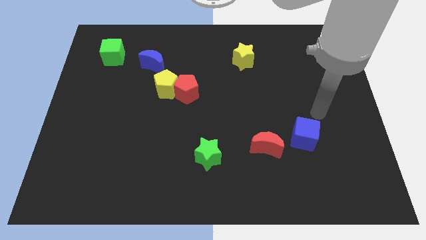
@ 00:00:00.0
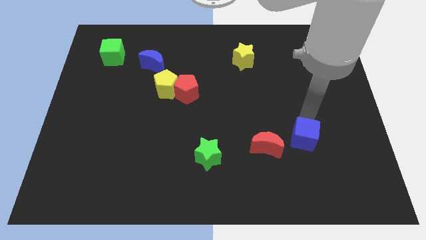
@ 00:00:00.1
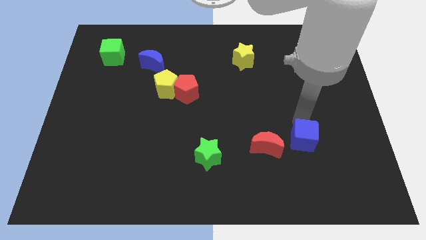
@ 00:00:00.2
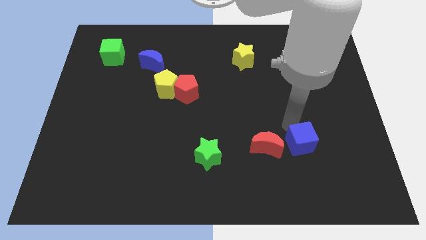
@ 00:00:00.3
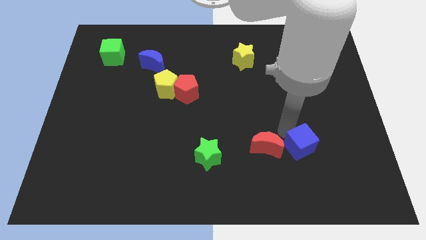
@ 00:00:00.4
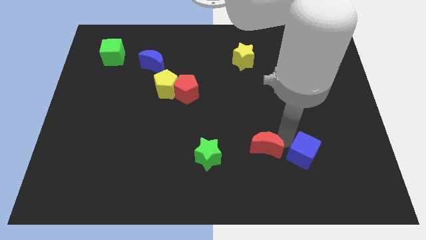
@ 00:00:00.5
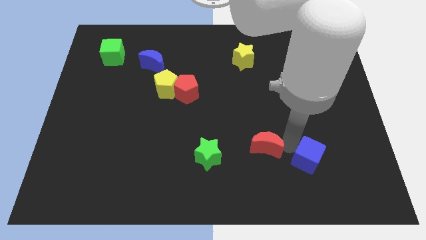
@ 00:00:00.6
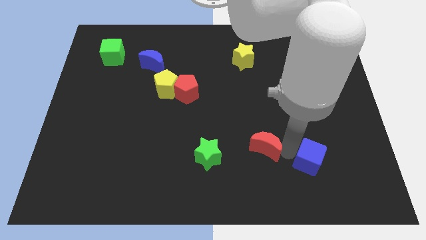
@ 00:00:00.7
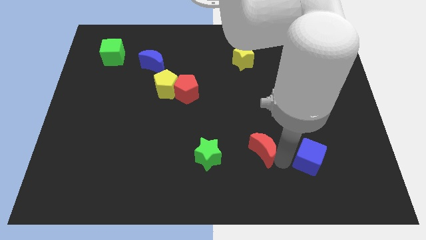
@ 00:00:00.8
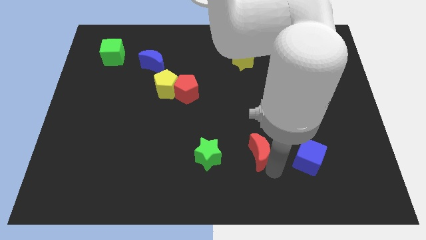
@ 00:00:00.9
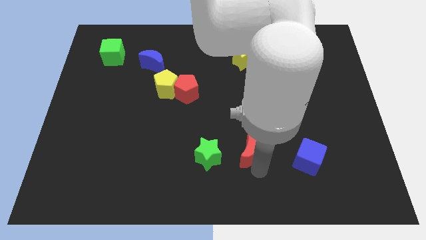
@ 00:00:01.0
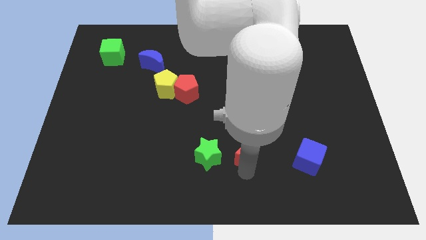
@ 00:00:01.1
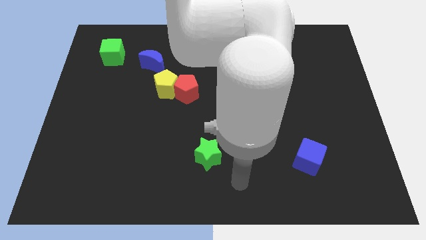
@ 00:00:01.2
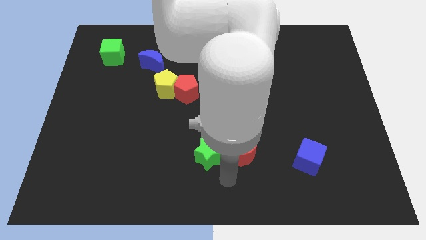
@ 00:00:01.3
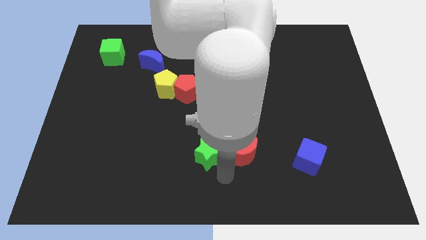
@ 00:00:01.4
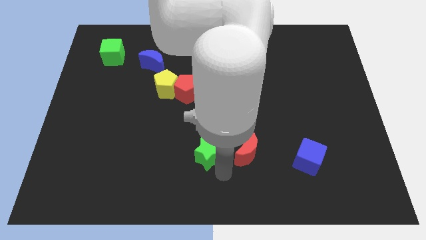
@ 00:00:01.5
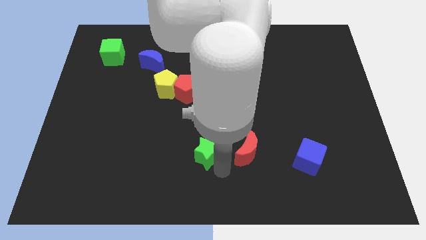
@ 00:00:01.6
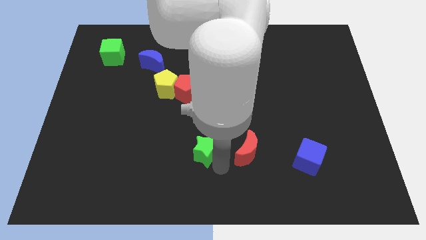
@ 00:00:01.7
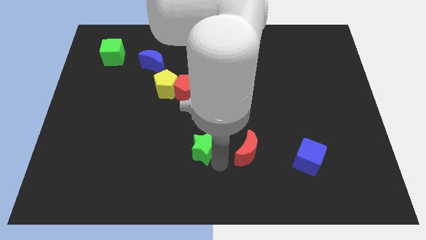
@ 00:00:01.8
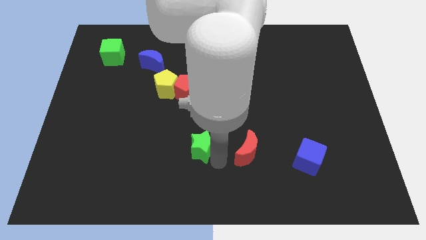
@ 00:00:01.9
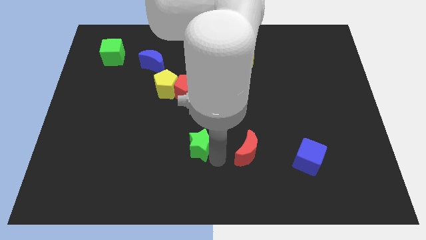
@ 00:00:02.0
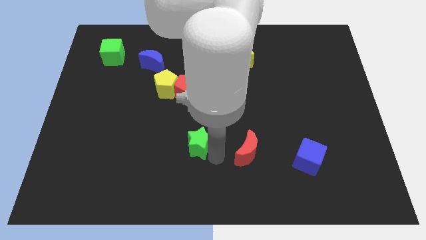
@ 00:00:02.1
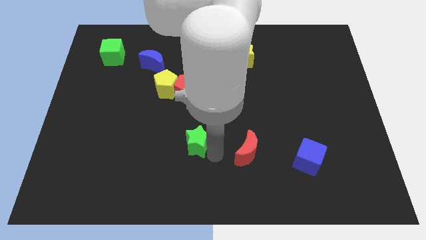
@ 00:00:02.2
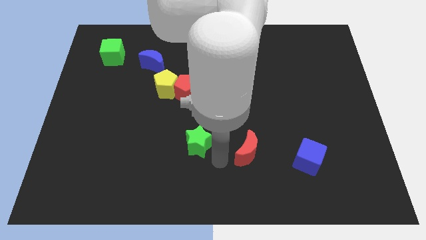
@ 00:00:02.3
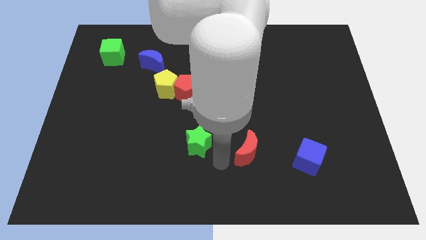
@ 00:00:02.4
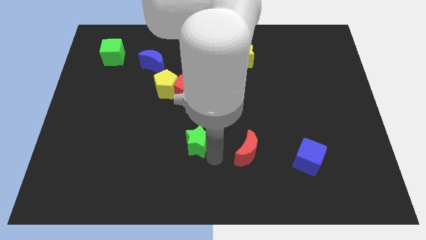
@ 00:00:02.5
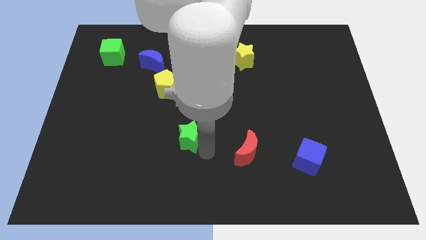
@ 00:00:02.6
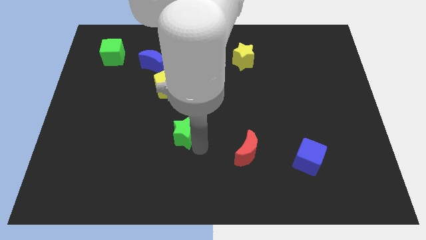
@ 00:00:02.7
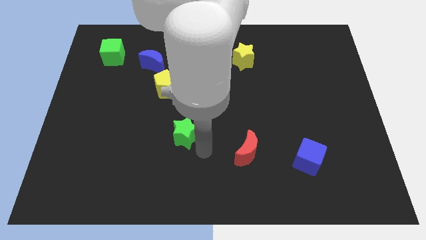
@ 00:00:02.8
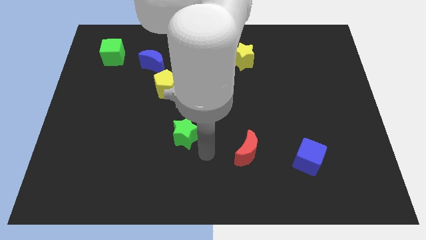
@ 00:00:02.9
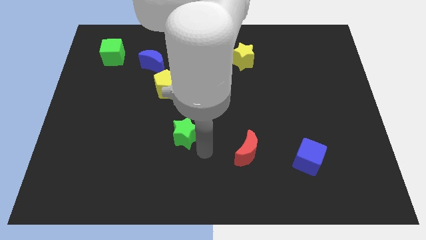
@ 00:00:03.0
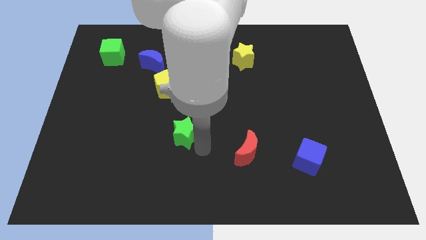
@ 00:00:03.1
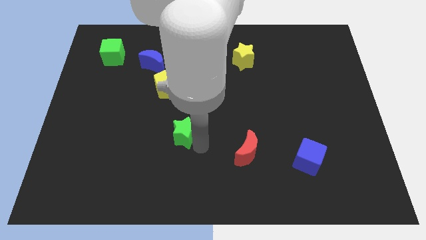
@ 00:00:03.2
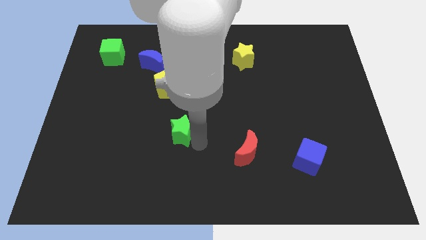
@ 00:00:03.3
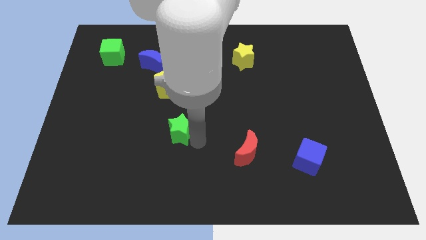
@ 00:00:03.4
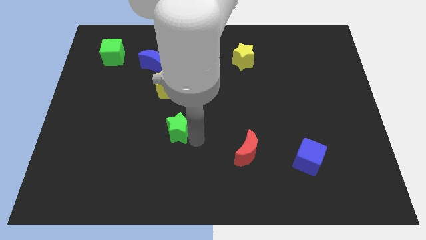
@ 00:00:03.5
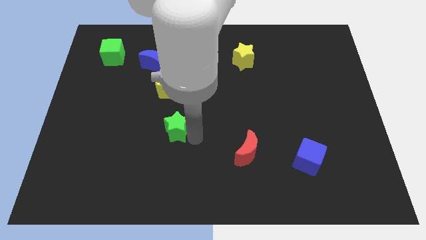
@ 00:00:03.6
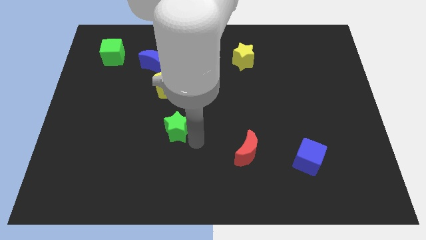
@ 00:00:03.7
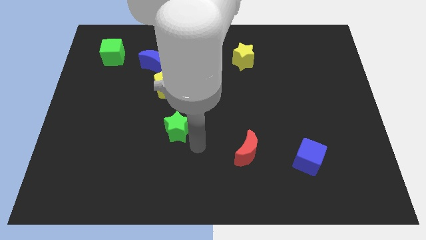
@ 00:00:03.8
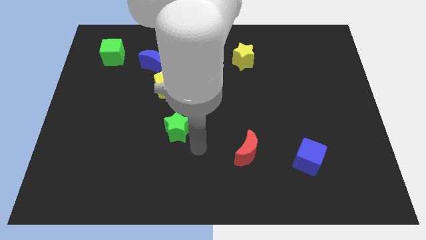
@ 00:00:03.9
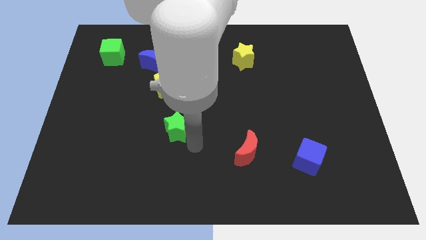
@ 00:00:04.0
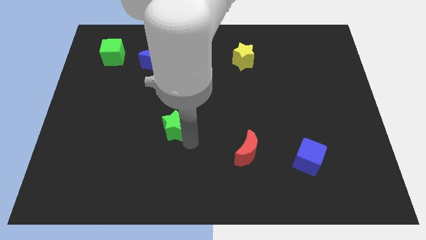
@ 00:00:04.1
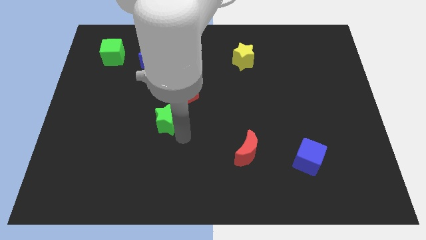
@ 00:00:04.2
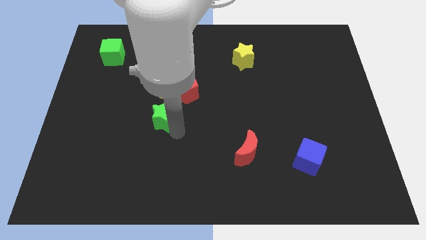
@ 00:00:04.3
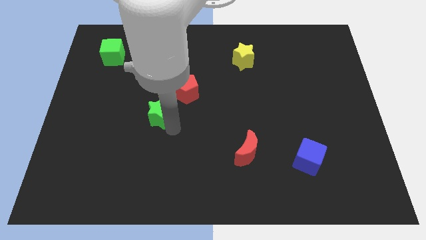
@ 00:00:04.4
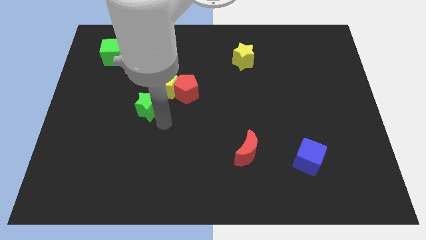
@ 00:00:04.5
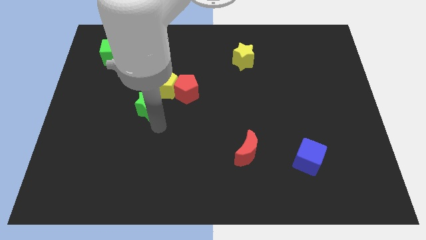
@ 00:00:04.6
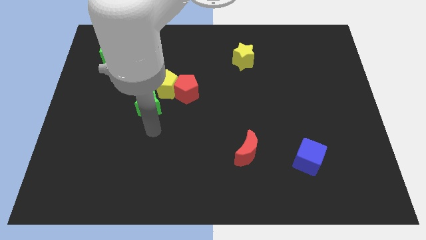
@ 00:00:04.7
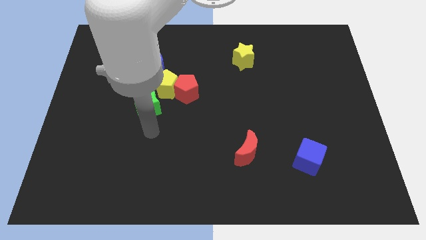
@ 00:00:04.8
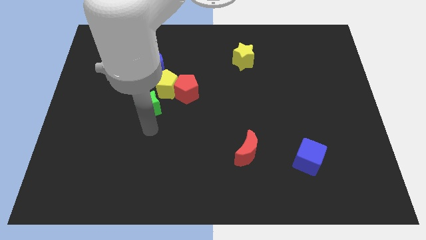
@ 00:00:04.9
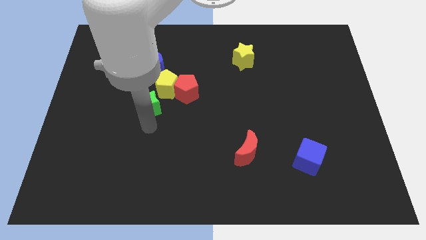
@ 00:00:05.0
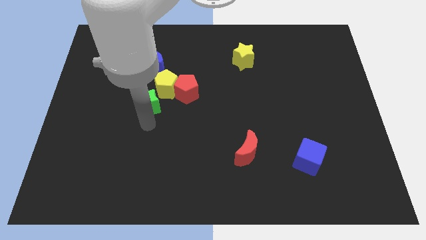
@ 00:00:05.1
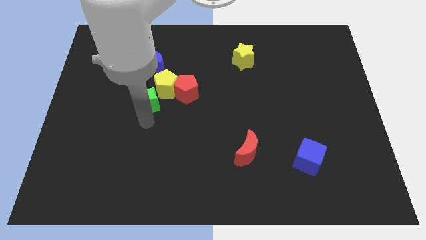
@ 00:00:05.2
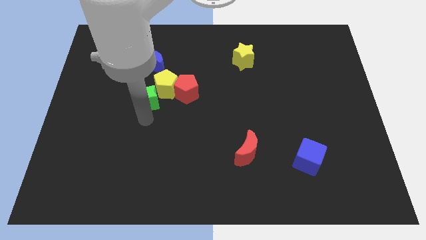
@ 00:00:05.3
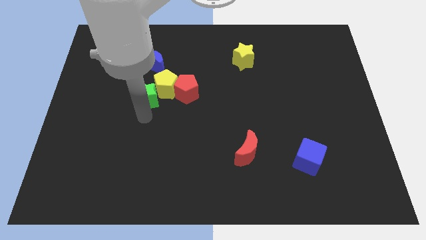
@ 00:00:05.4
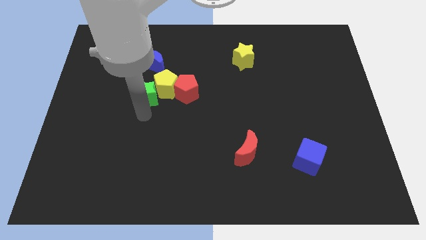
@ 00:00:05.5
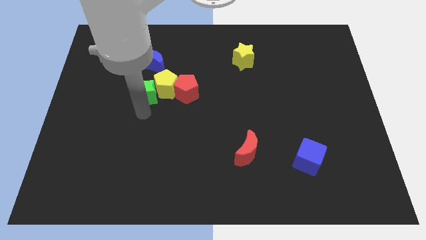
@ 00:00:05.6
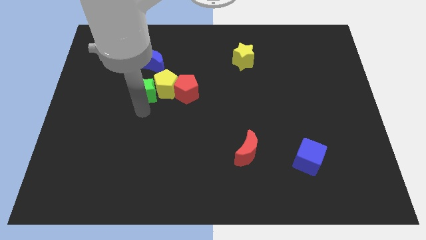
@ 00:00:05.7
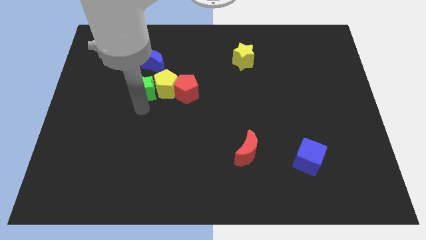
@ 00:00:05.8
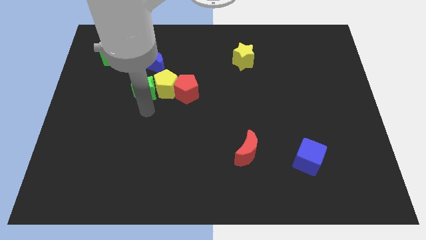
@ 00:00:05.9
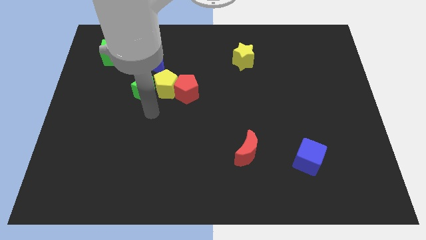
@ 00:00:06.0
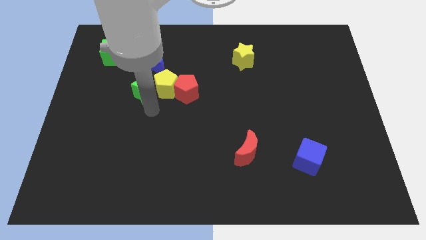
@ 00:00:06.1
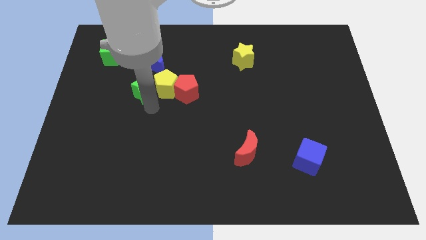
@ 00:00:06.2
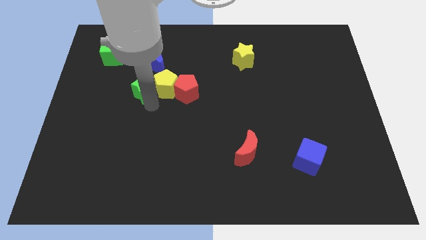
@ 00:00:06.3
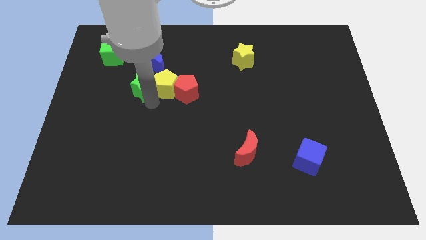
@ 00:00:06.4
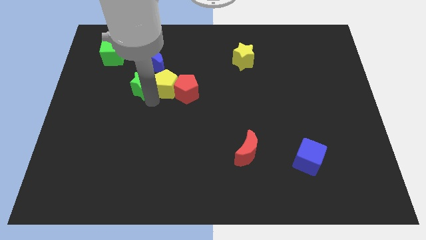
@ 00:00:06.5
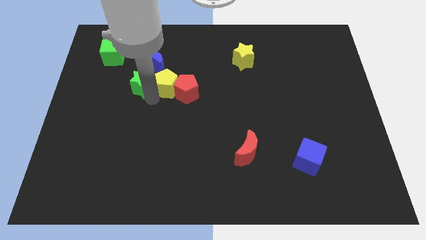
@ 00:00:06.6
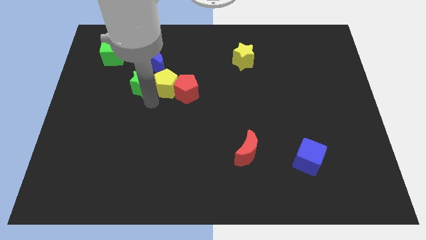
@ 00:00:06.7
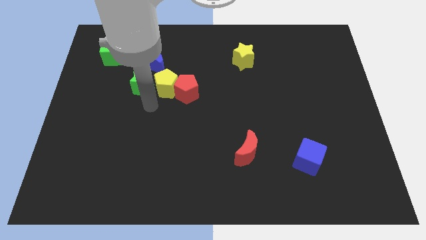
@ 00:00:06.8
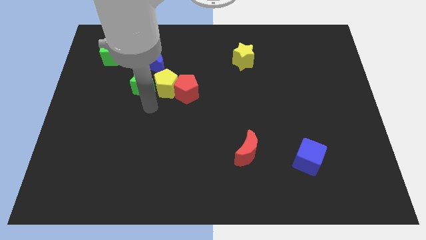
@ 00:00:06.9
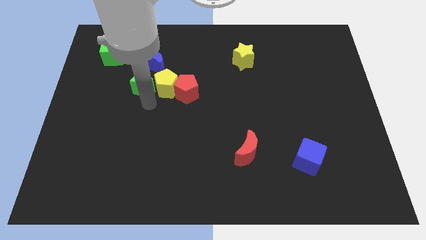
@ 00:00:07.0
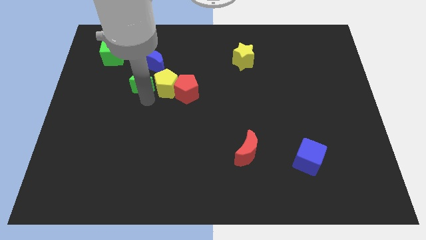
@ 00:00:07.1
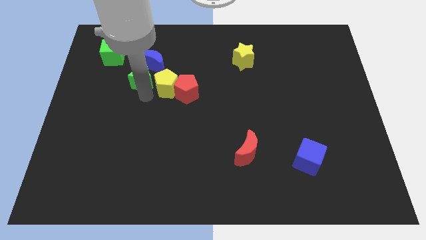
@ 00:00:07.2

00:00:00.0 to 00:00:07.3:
push the green star diagonally down and to the right of the green cube
